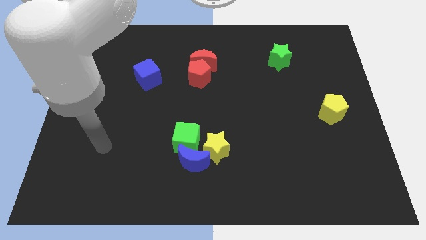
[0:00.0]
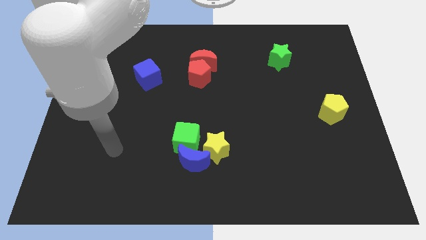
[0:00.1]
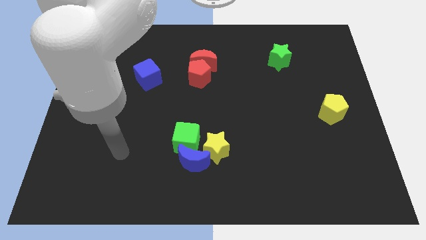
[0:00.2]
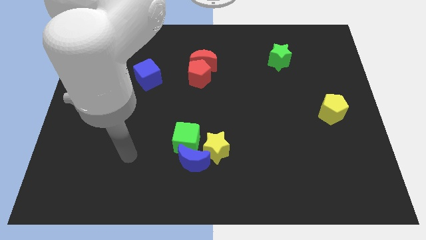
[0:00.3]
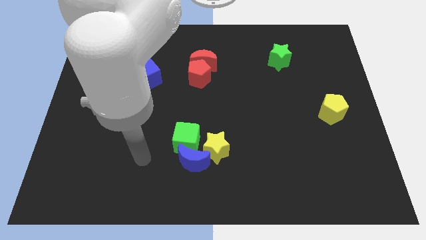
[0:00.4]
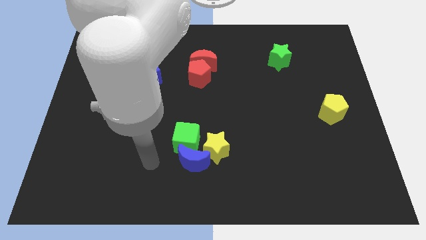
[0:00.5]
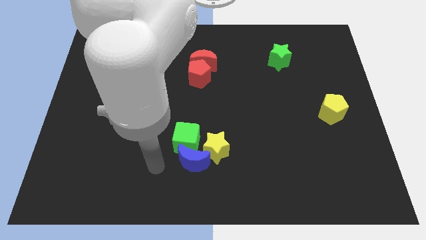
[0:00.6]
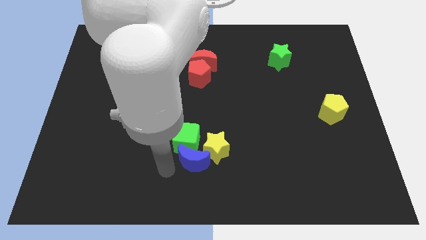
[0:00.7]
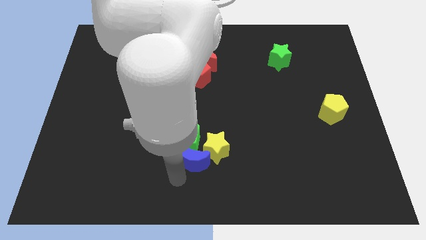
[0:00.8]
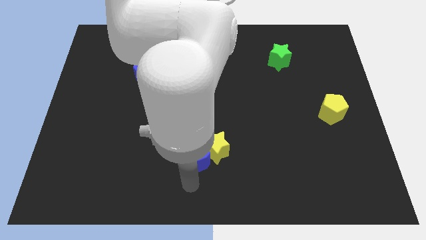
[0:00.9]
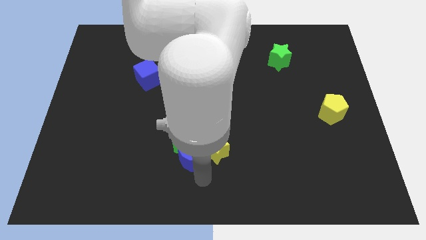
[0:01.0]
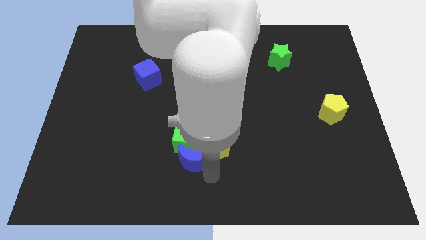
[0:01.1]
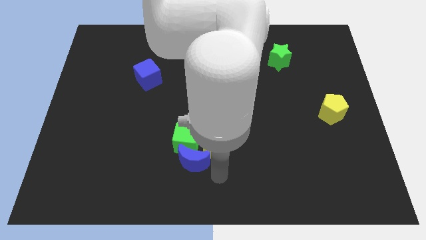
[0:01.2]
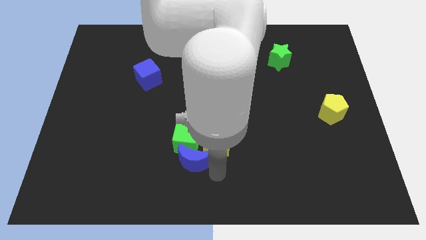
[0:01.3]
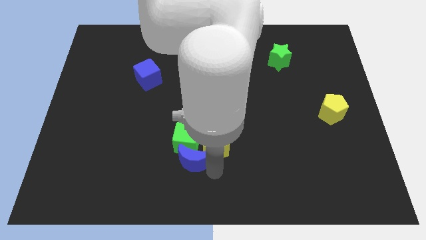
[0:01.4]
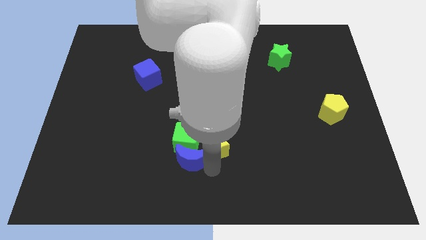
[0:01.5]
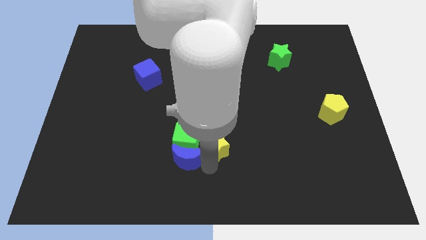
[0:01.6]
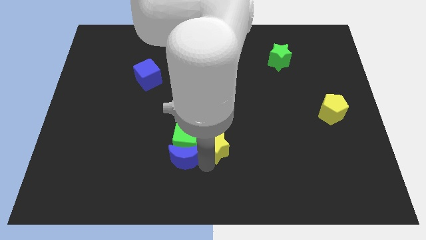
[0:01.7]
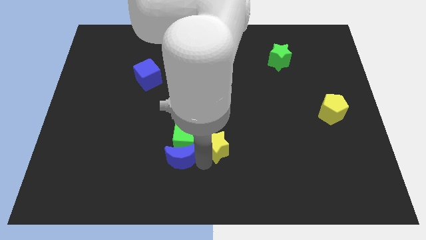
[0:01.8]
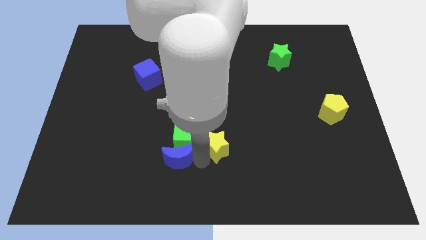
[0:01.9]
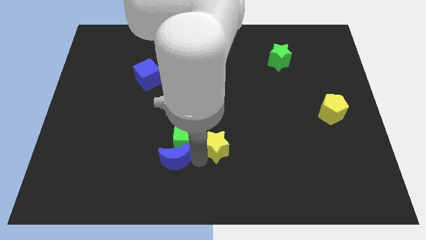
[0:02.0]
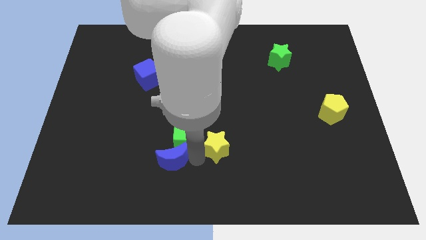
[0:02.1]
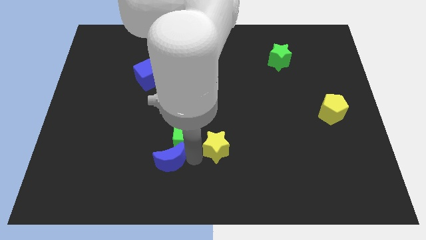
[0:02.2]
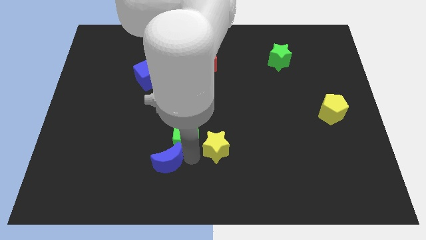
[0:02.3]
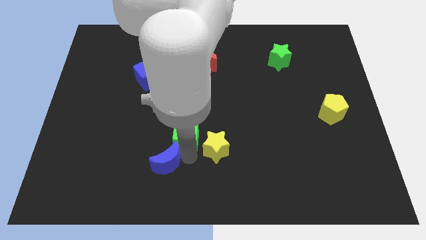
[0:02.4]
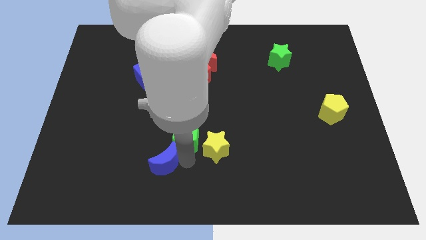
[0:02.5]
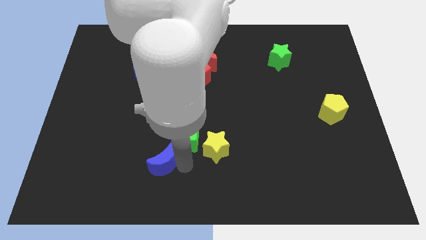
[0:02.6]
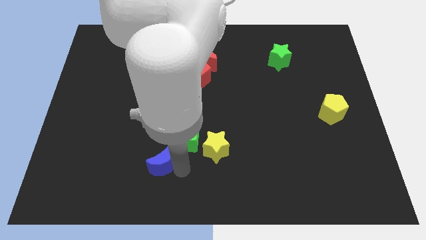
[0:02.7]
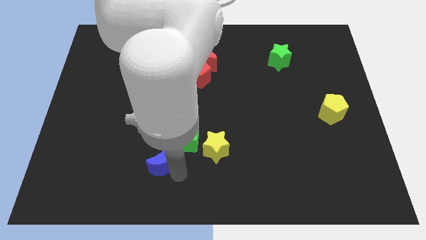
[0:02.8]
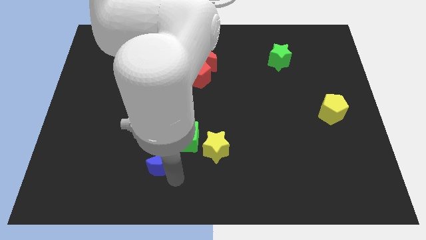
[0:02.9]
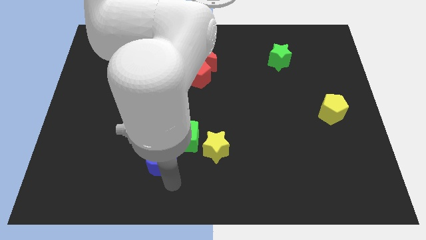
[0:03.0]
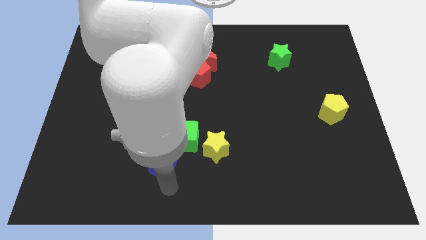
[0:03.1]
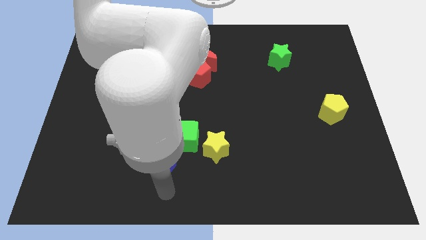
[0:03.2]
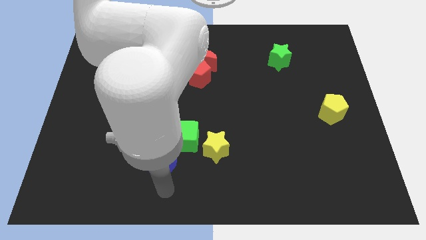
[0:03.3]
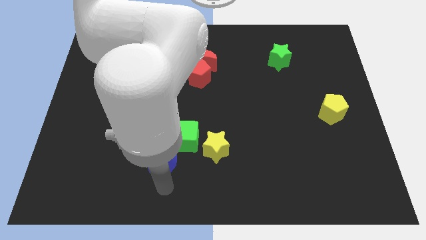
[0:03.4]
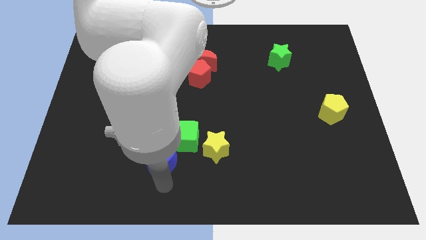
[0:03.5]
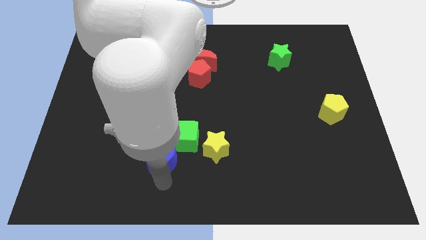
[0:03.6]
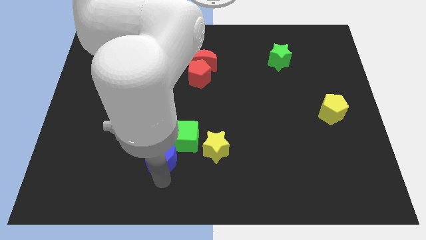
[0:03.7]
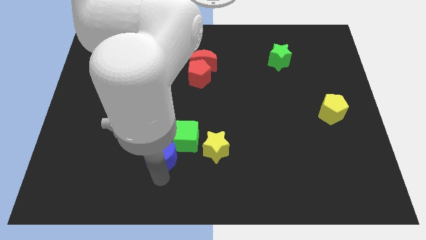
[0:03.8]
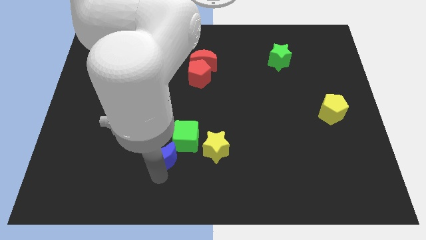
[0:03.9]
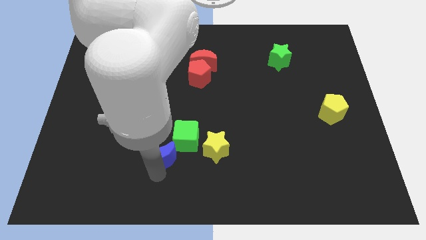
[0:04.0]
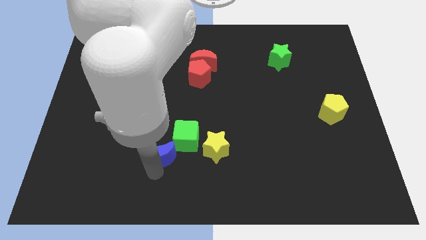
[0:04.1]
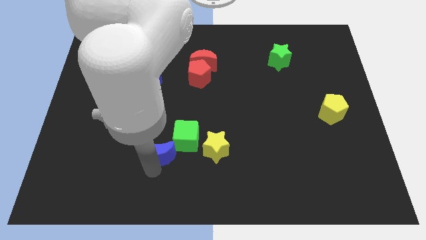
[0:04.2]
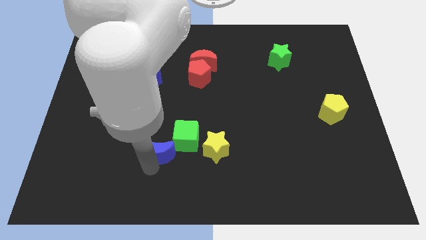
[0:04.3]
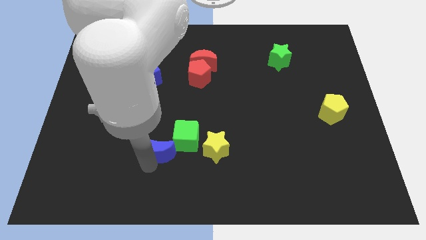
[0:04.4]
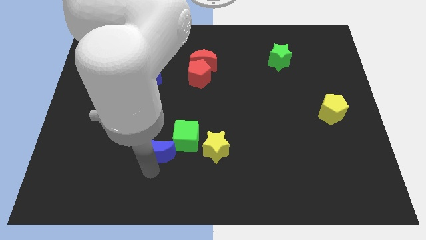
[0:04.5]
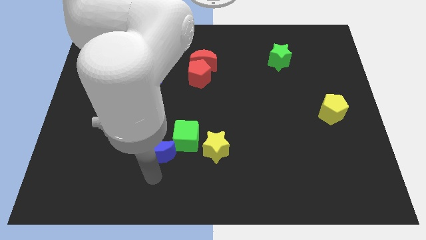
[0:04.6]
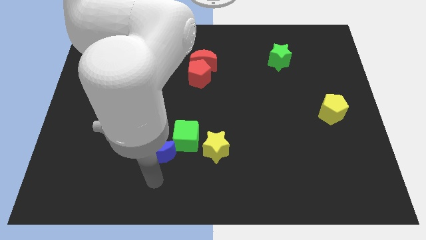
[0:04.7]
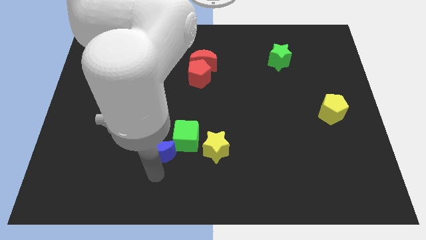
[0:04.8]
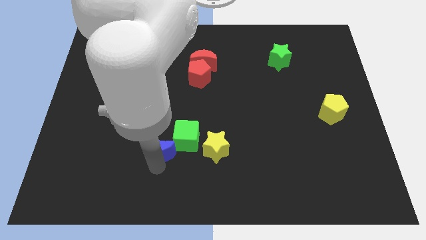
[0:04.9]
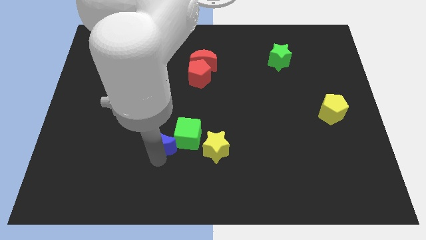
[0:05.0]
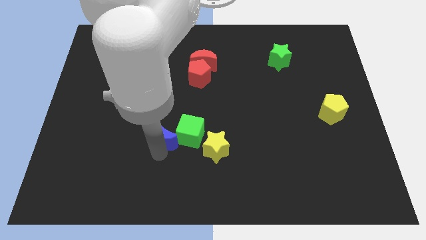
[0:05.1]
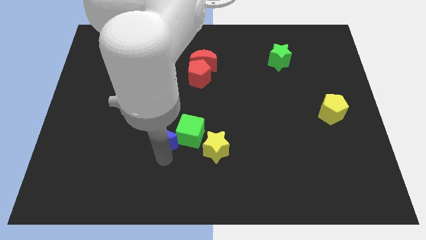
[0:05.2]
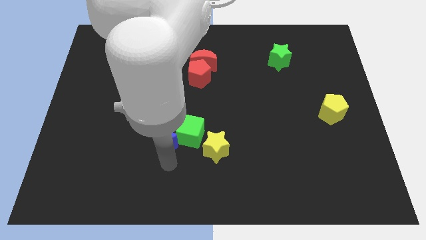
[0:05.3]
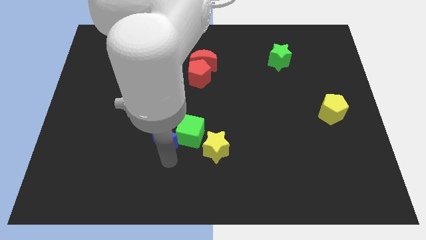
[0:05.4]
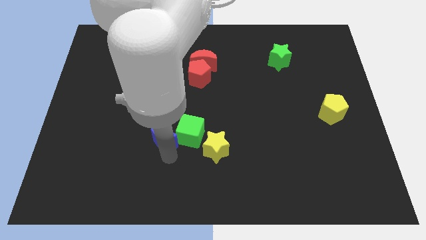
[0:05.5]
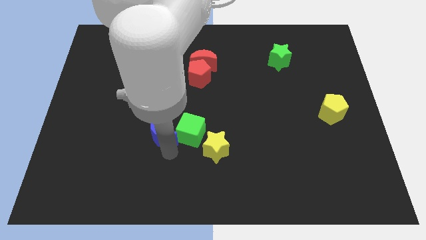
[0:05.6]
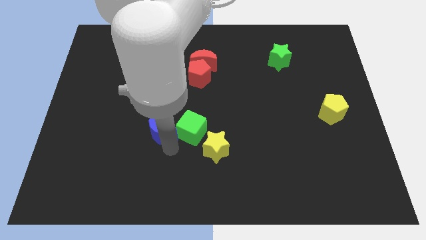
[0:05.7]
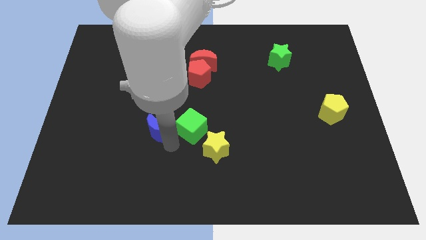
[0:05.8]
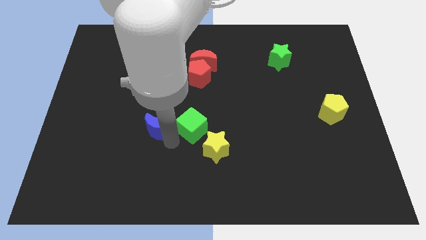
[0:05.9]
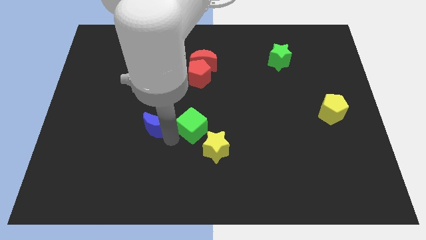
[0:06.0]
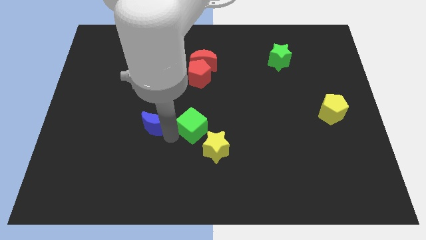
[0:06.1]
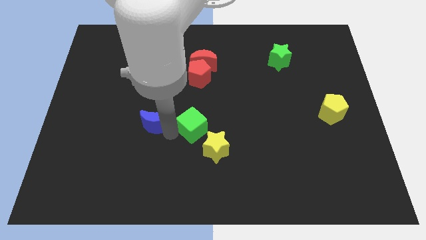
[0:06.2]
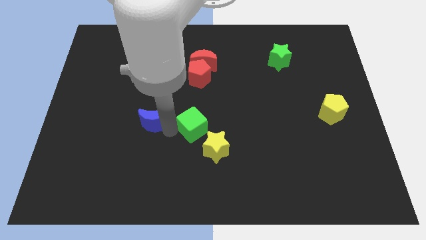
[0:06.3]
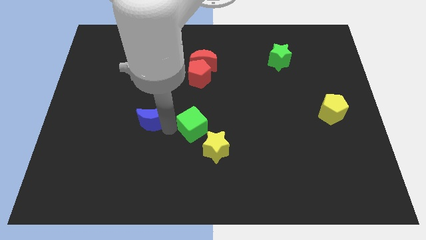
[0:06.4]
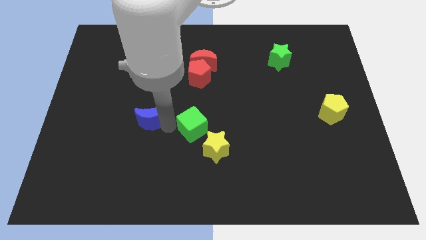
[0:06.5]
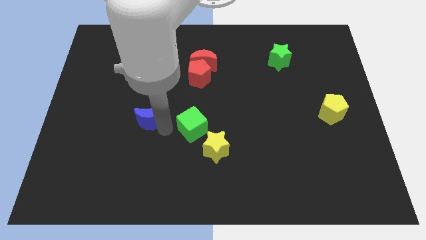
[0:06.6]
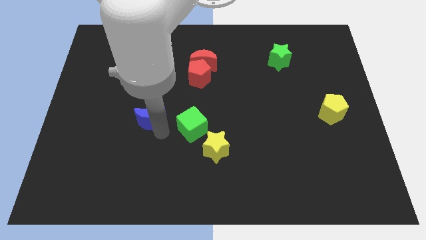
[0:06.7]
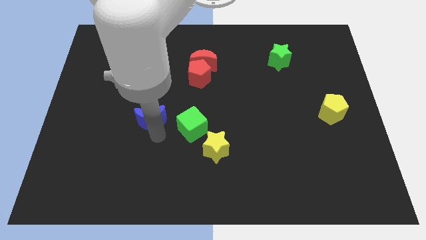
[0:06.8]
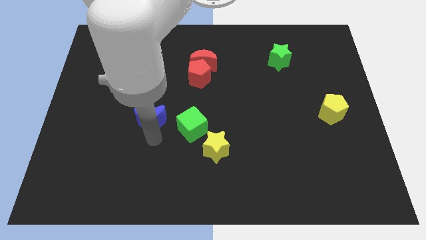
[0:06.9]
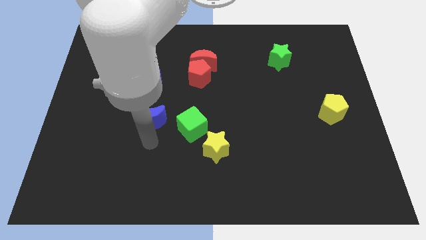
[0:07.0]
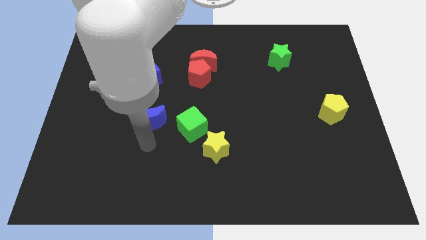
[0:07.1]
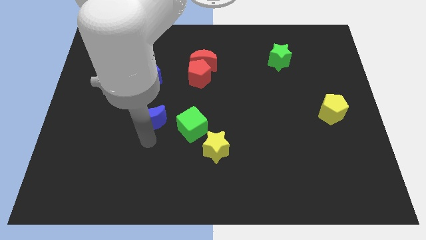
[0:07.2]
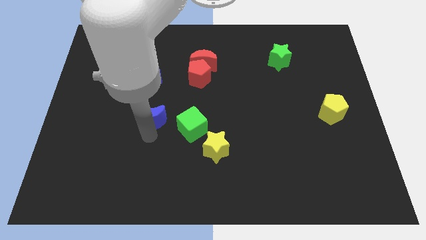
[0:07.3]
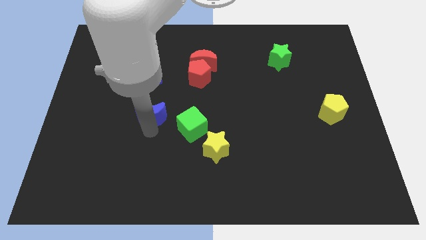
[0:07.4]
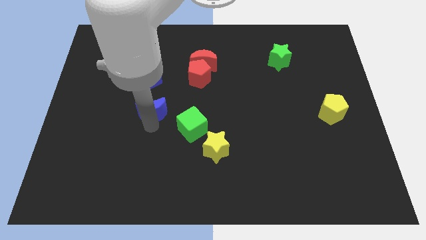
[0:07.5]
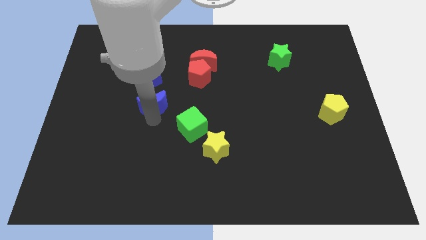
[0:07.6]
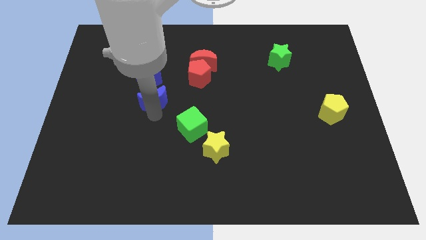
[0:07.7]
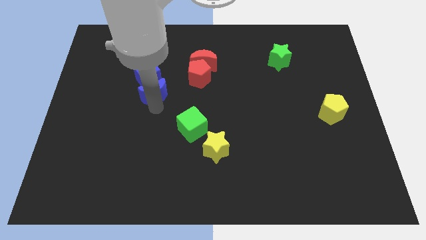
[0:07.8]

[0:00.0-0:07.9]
put the blue moon close to the blue cube
